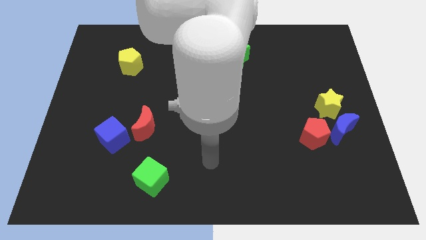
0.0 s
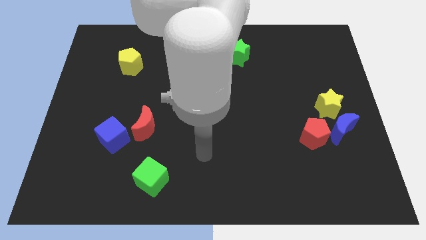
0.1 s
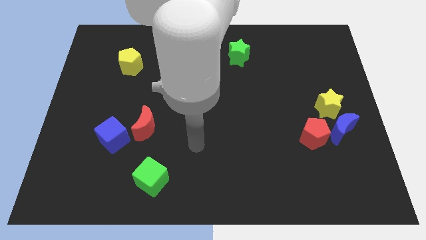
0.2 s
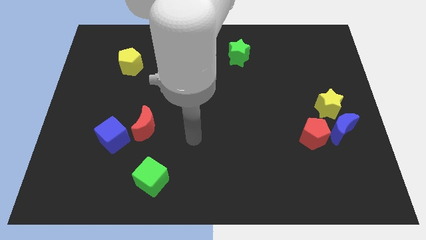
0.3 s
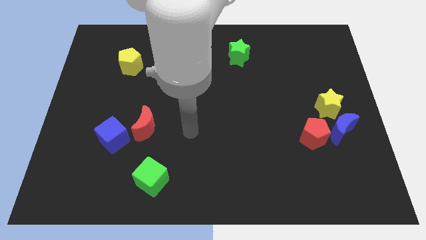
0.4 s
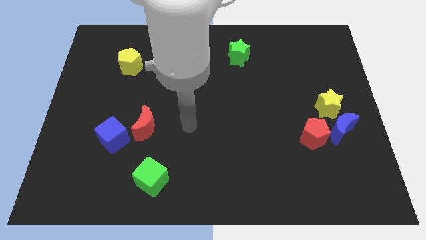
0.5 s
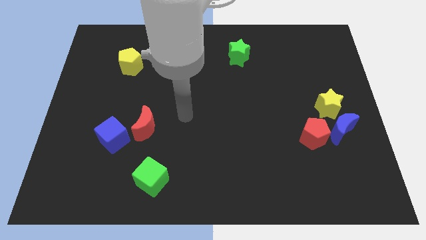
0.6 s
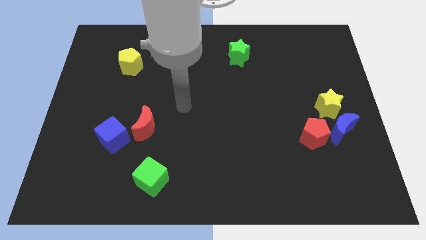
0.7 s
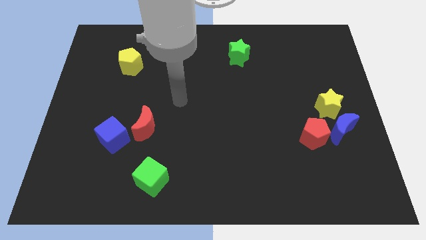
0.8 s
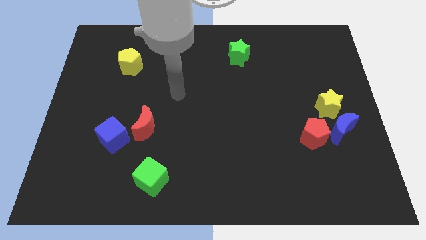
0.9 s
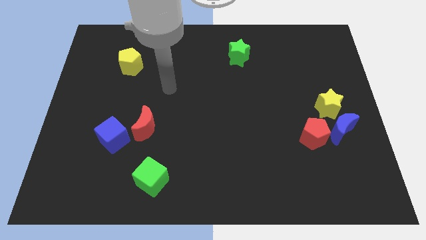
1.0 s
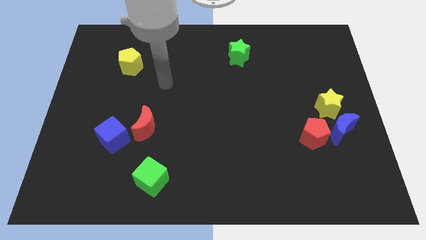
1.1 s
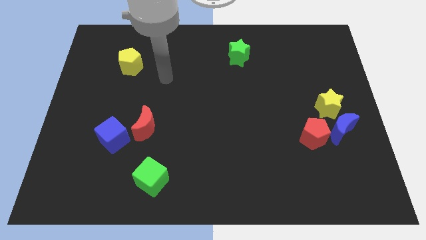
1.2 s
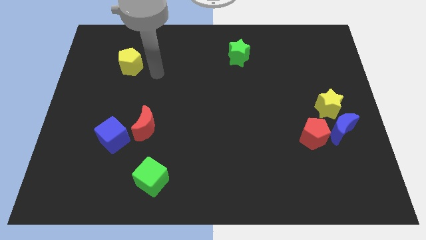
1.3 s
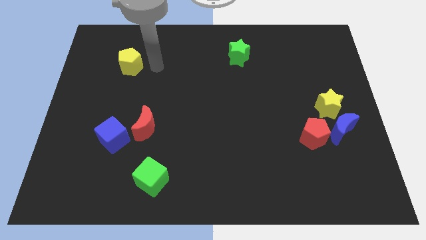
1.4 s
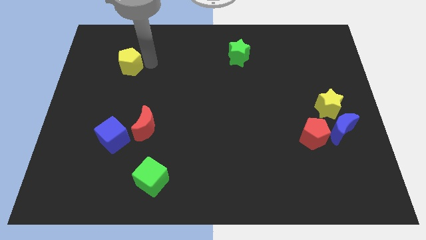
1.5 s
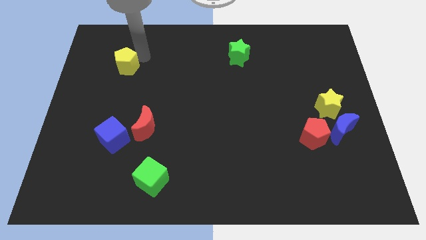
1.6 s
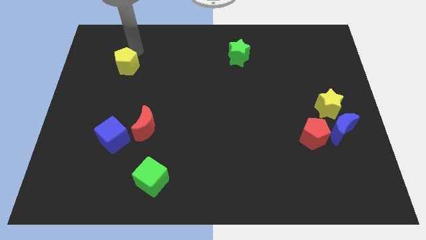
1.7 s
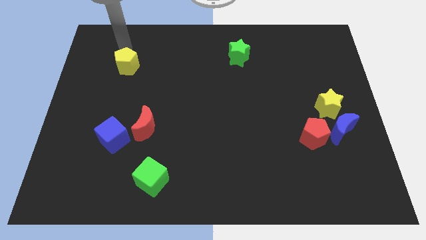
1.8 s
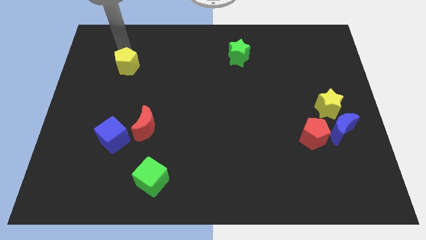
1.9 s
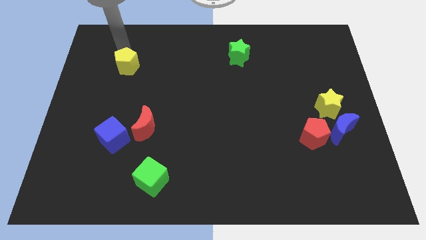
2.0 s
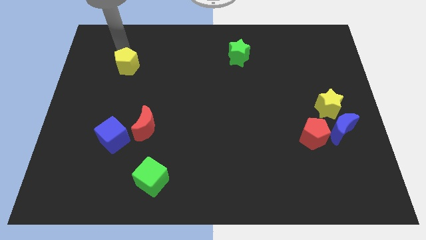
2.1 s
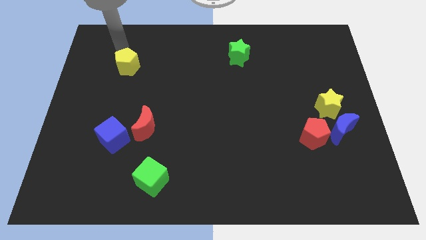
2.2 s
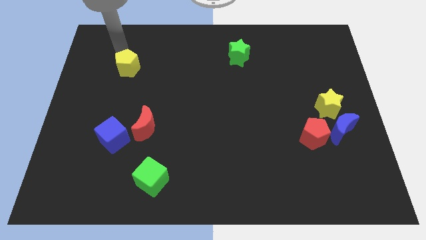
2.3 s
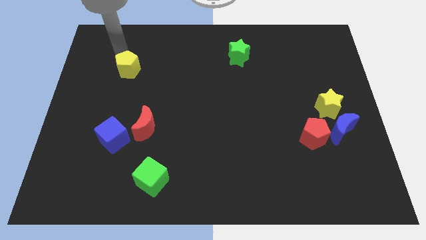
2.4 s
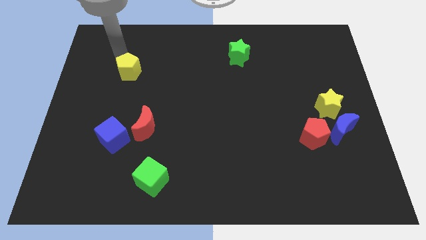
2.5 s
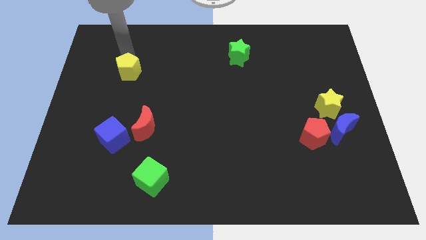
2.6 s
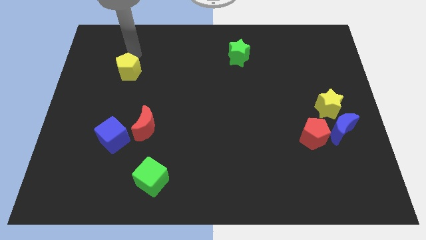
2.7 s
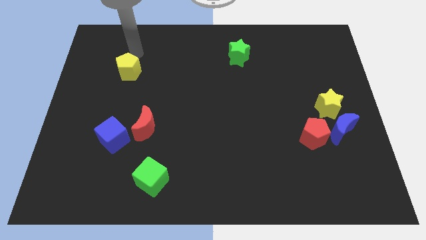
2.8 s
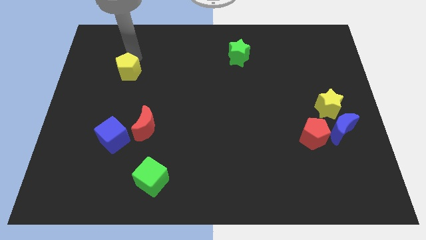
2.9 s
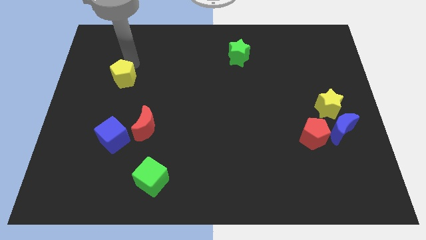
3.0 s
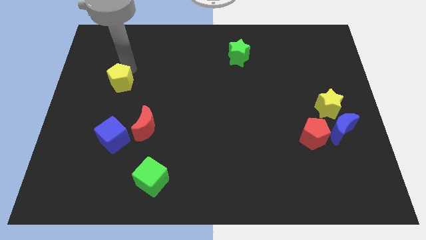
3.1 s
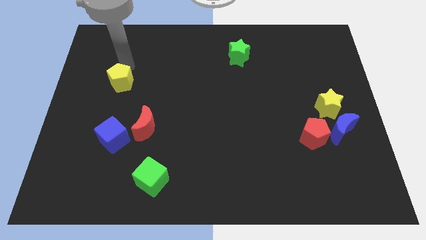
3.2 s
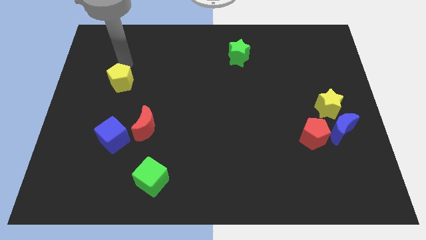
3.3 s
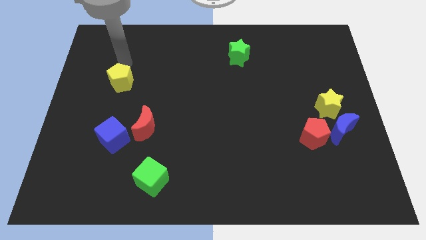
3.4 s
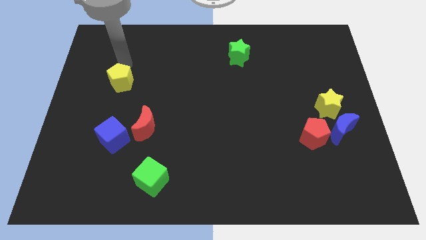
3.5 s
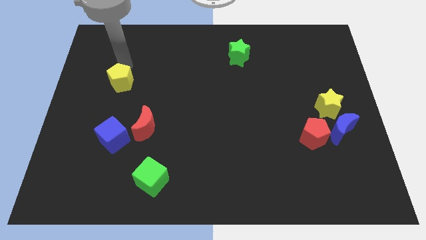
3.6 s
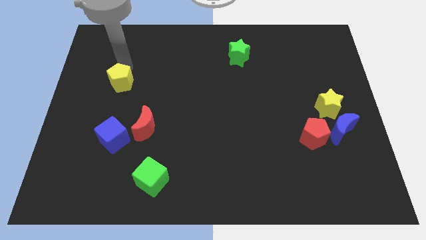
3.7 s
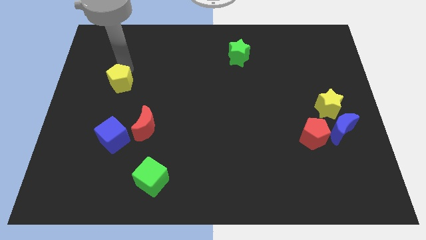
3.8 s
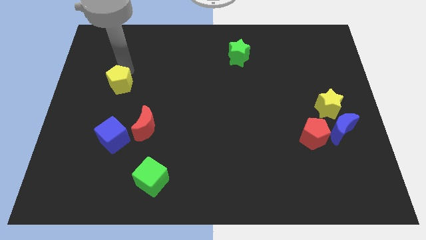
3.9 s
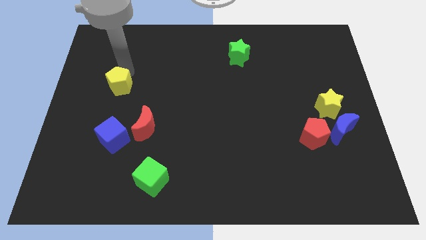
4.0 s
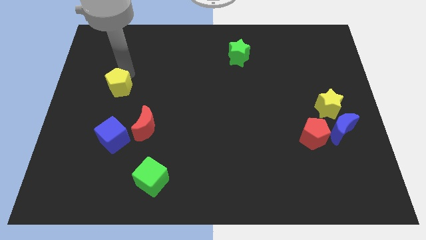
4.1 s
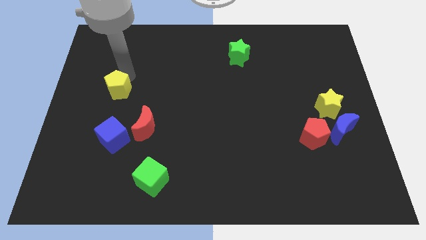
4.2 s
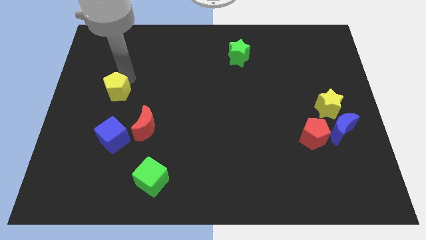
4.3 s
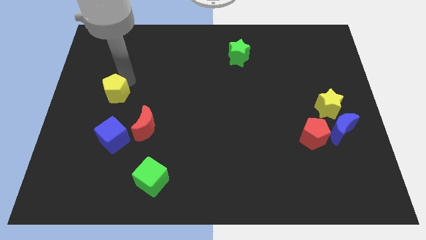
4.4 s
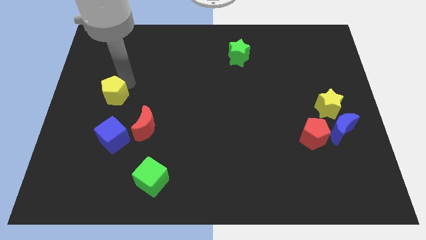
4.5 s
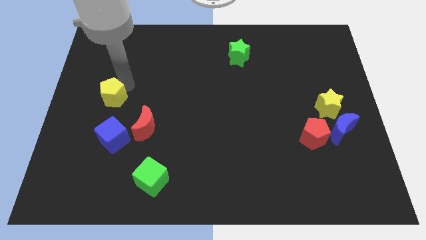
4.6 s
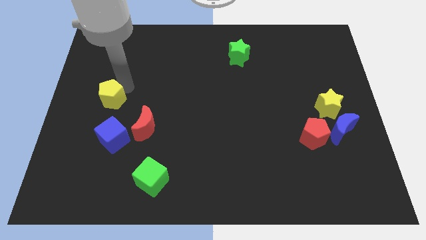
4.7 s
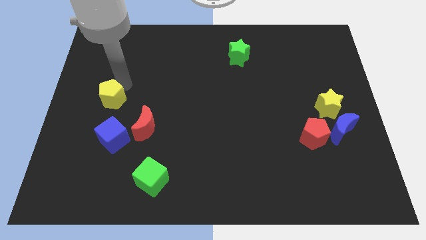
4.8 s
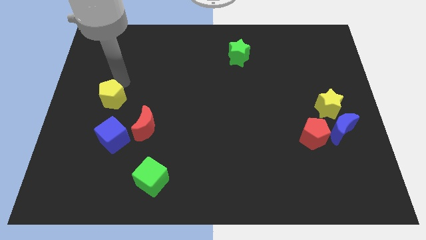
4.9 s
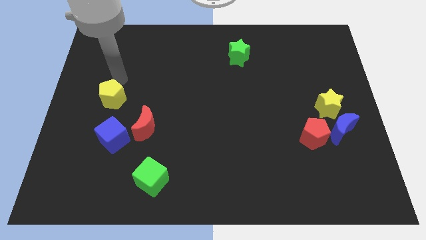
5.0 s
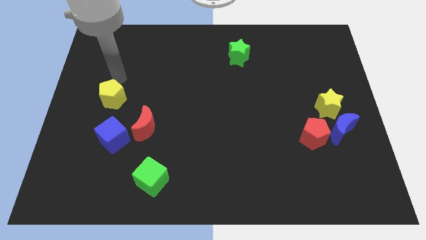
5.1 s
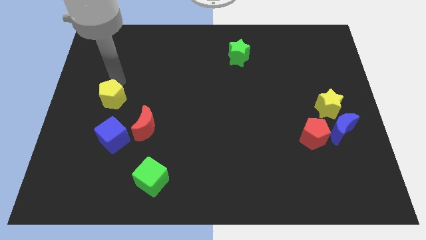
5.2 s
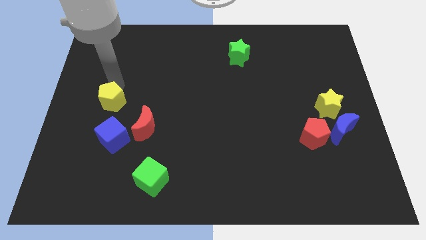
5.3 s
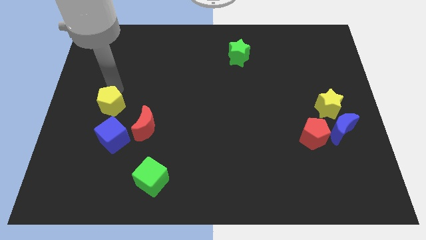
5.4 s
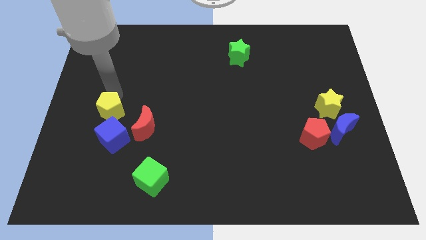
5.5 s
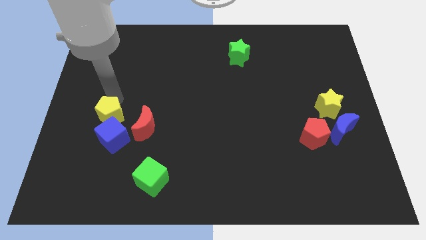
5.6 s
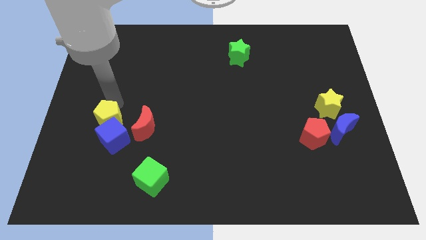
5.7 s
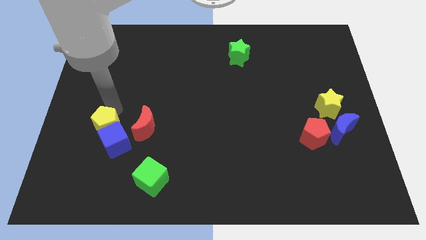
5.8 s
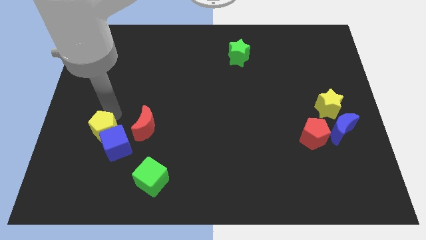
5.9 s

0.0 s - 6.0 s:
push the yellow pentagon down

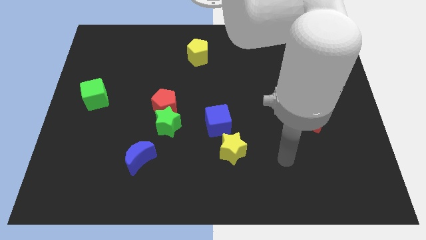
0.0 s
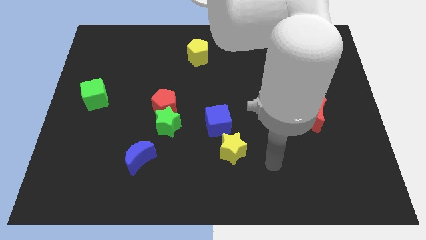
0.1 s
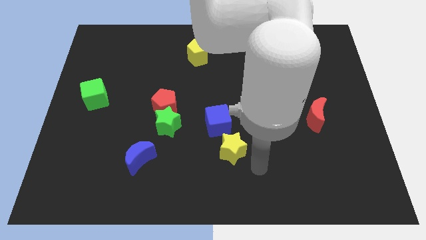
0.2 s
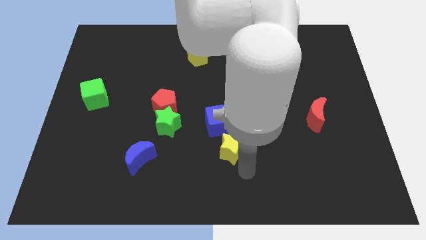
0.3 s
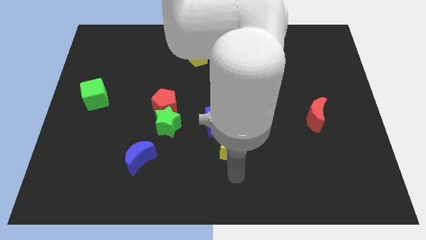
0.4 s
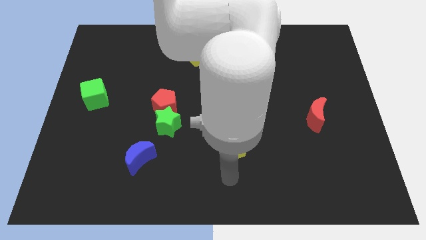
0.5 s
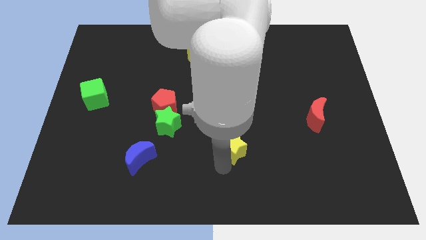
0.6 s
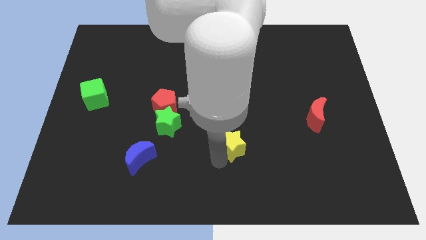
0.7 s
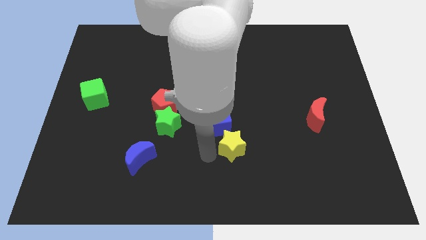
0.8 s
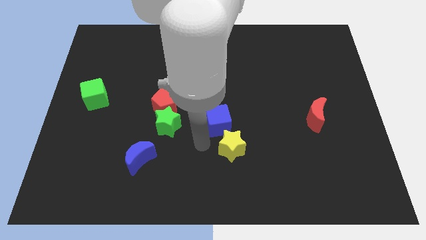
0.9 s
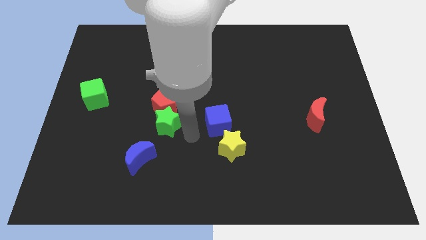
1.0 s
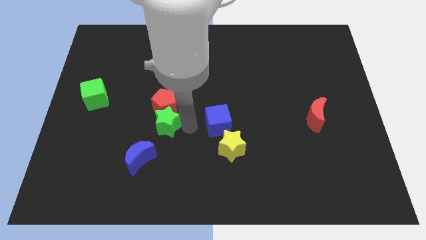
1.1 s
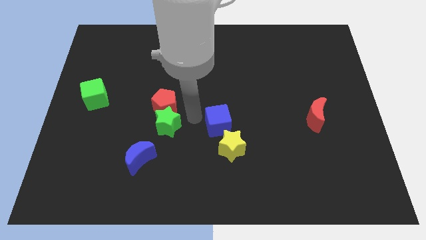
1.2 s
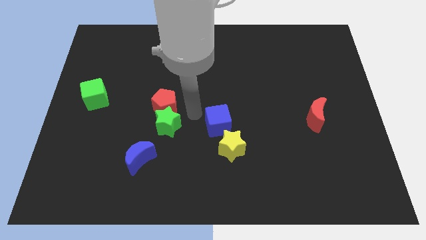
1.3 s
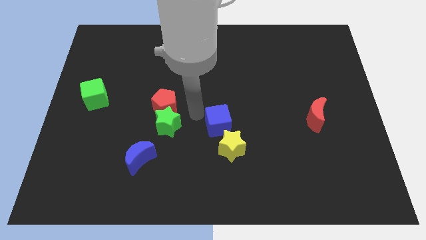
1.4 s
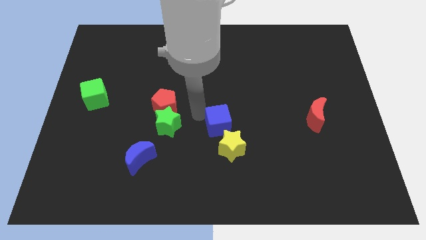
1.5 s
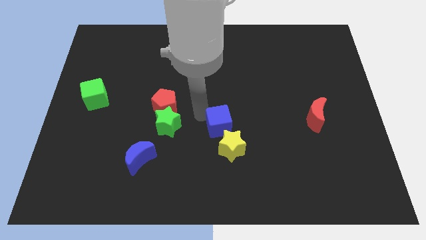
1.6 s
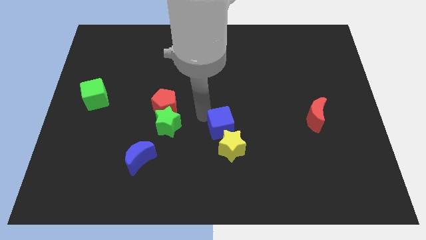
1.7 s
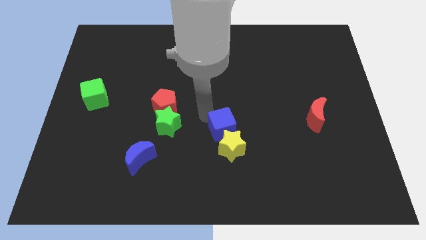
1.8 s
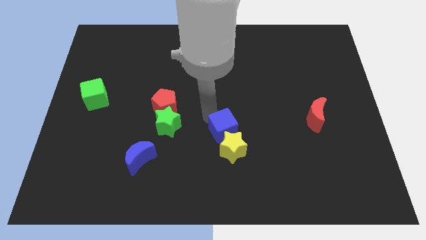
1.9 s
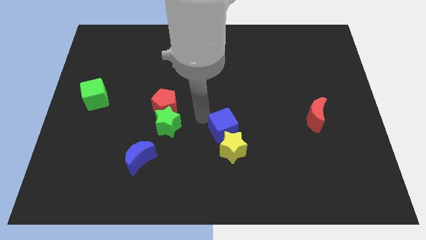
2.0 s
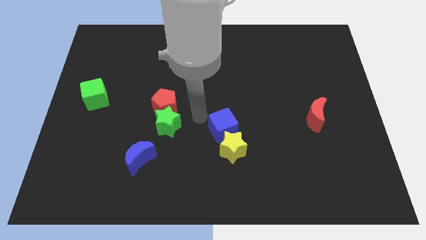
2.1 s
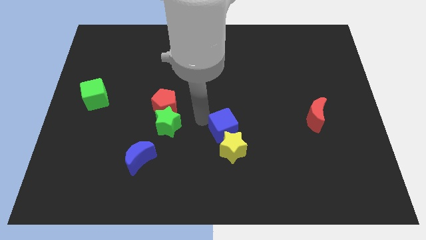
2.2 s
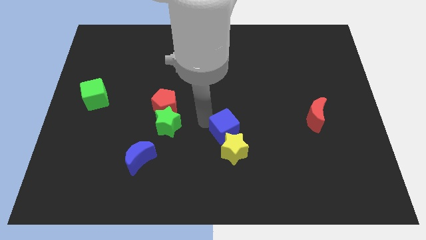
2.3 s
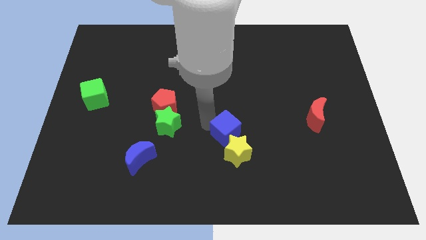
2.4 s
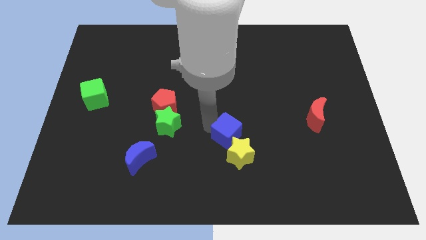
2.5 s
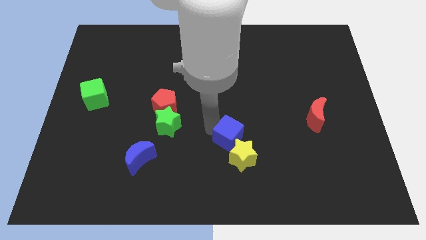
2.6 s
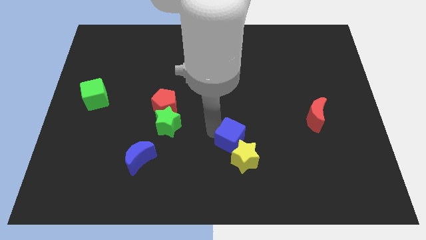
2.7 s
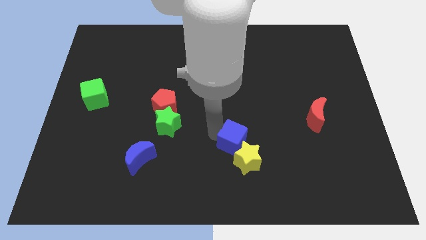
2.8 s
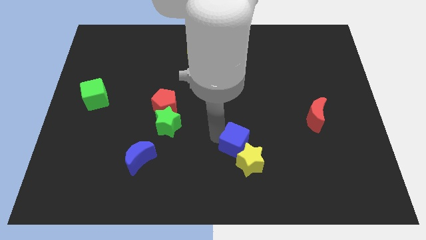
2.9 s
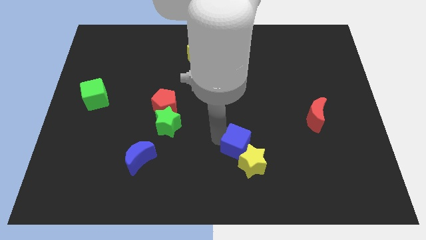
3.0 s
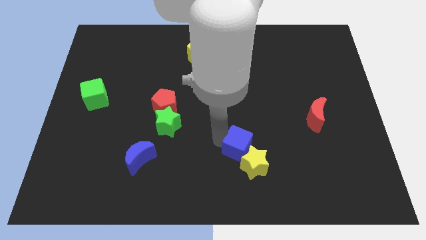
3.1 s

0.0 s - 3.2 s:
slightly move the blue cube diagonally down and to the right
